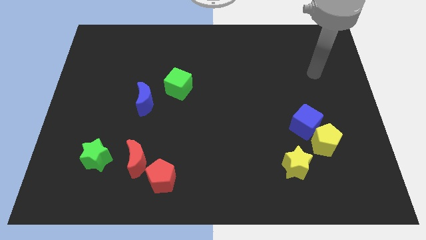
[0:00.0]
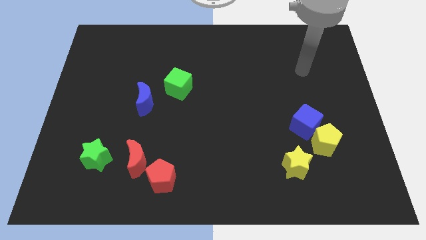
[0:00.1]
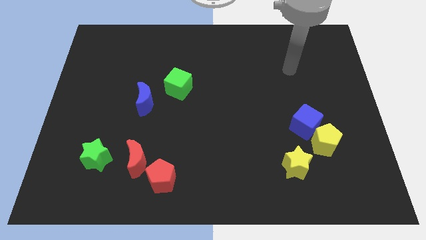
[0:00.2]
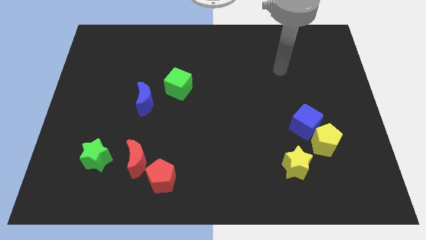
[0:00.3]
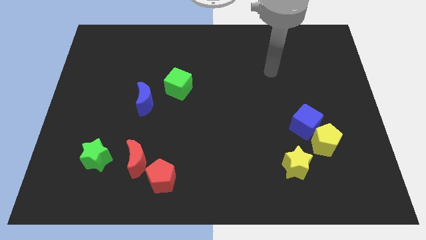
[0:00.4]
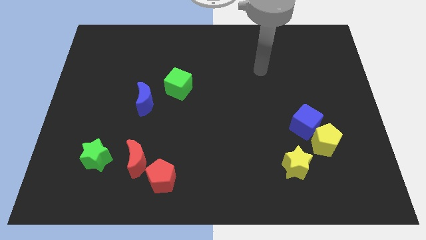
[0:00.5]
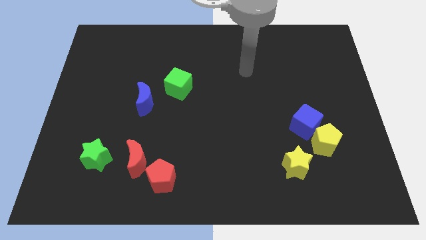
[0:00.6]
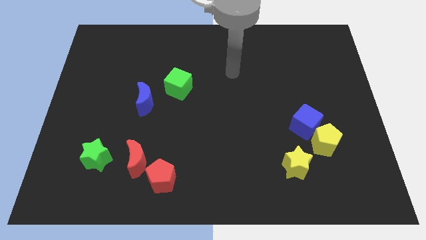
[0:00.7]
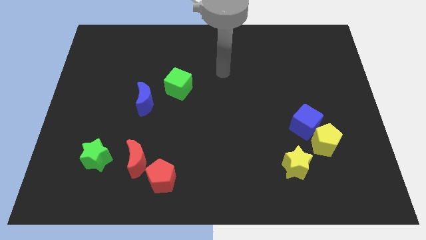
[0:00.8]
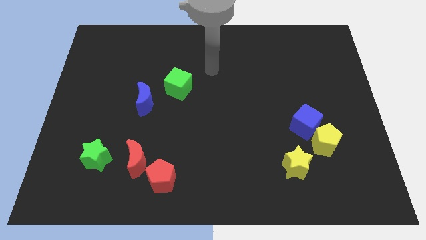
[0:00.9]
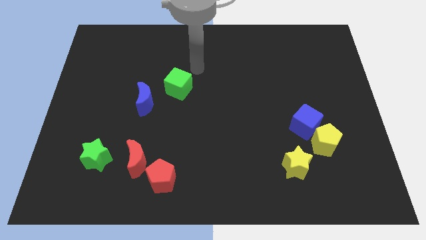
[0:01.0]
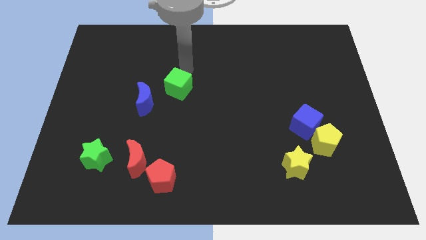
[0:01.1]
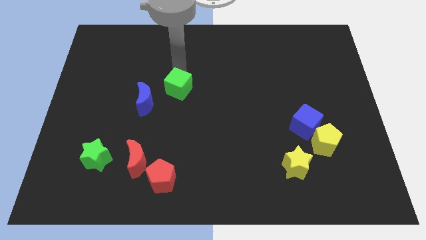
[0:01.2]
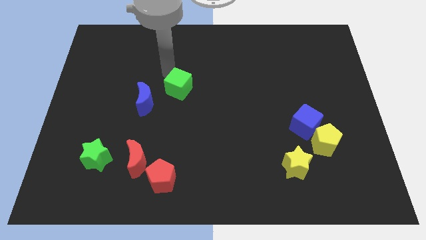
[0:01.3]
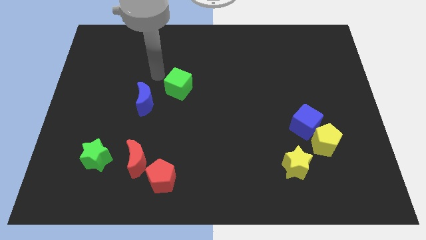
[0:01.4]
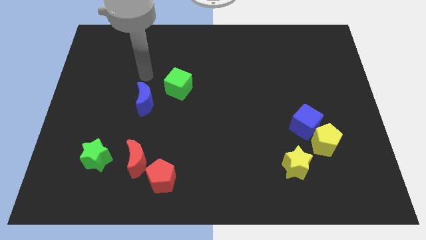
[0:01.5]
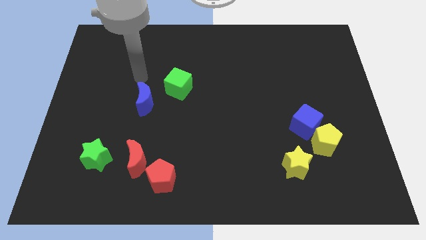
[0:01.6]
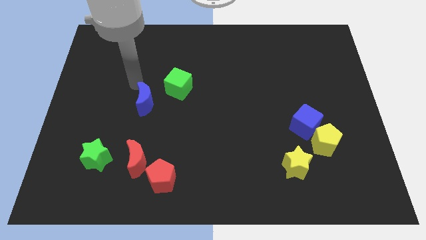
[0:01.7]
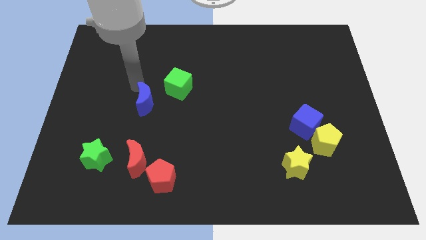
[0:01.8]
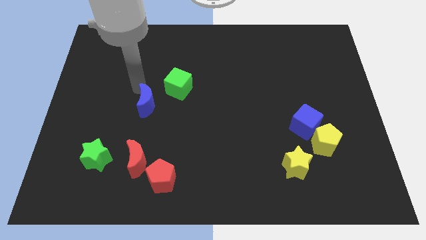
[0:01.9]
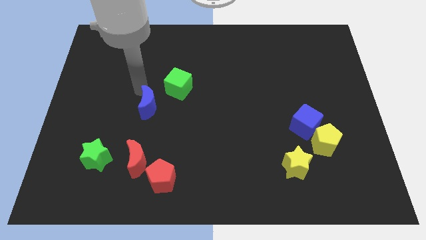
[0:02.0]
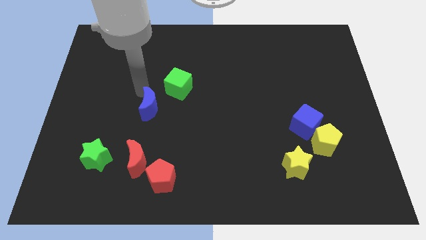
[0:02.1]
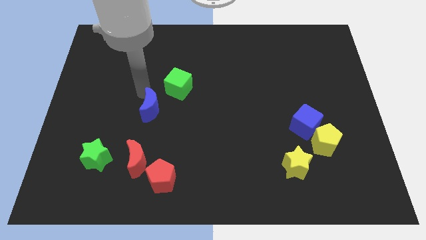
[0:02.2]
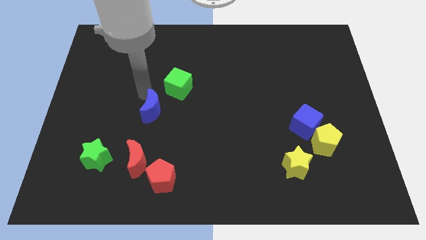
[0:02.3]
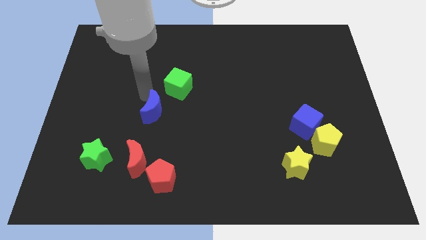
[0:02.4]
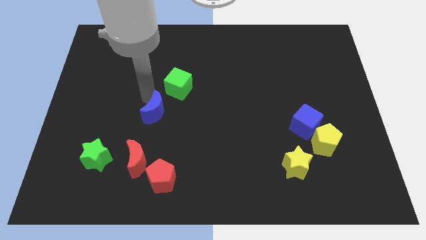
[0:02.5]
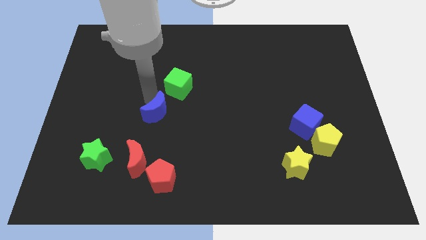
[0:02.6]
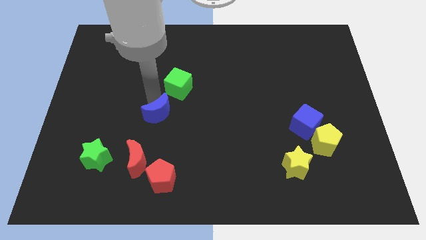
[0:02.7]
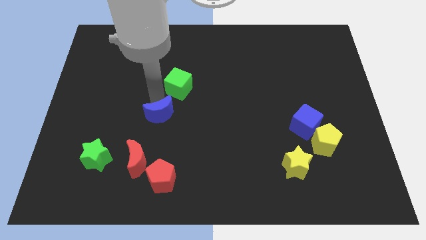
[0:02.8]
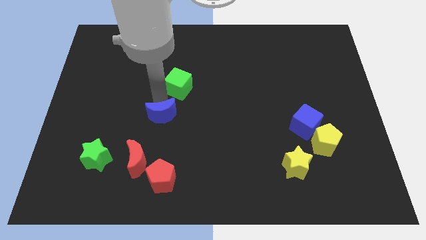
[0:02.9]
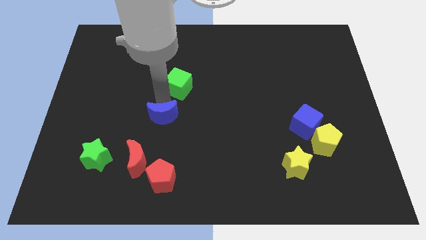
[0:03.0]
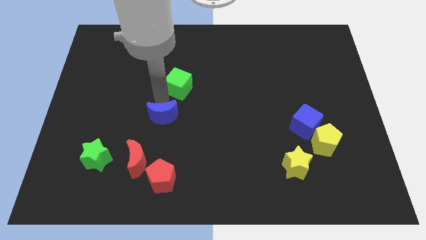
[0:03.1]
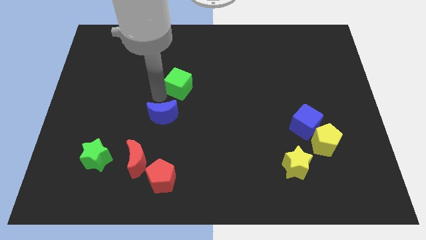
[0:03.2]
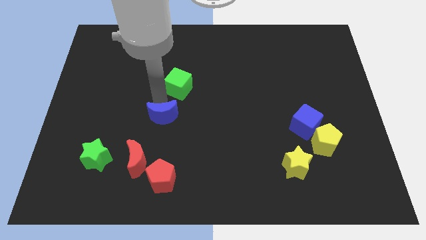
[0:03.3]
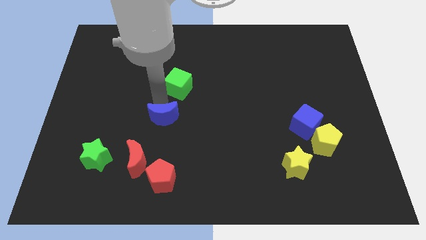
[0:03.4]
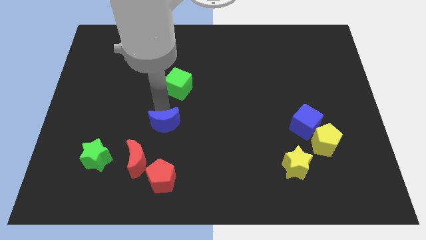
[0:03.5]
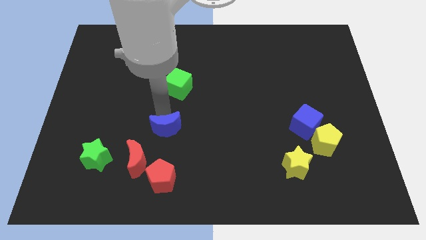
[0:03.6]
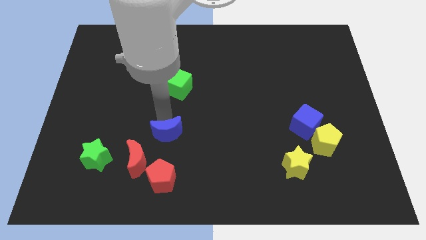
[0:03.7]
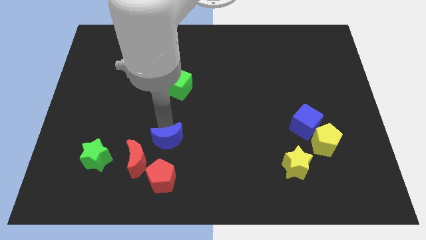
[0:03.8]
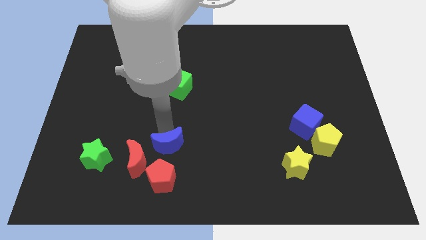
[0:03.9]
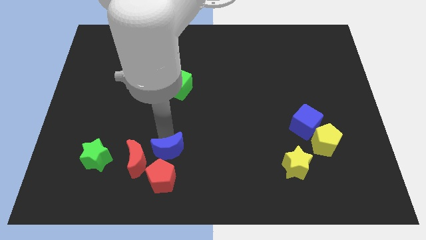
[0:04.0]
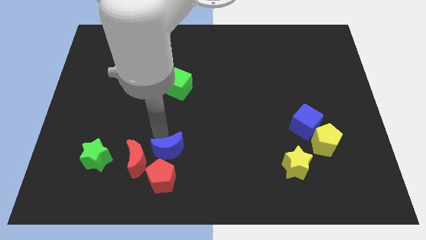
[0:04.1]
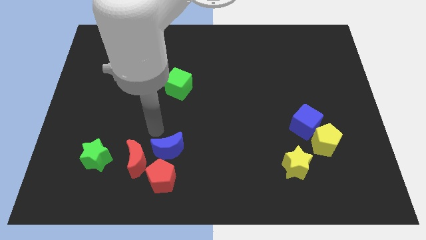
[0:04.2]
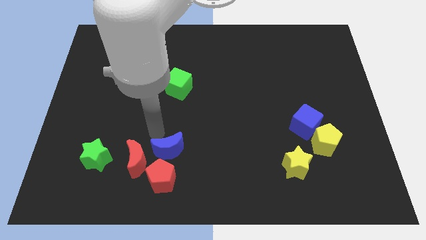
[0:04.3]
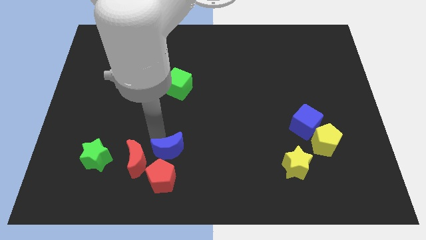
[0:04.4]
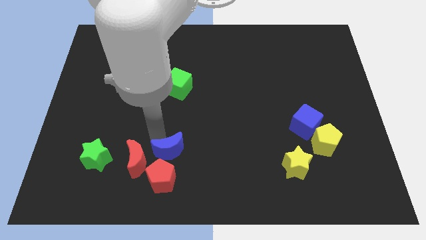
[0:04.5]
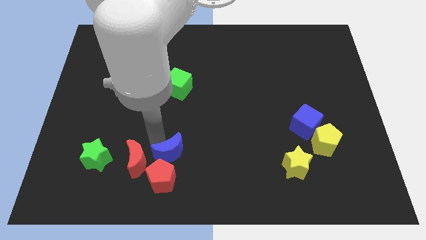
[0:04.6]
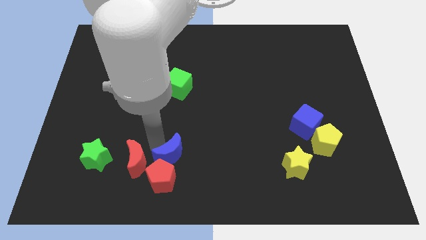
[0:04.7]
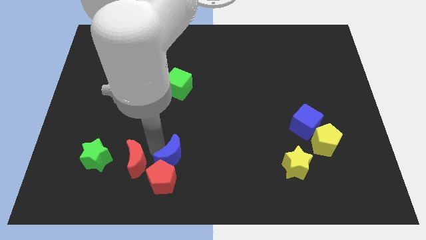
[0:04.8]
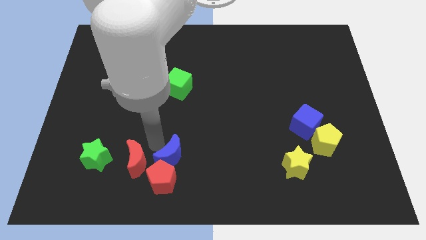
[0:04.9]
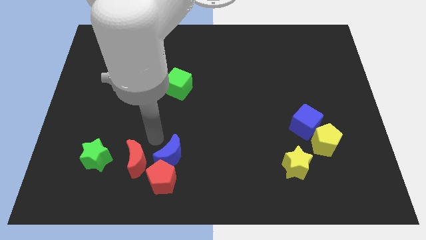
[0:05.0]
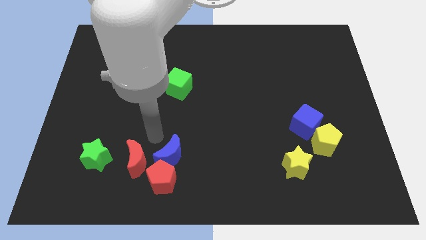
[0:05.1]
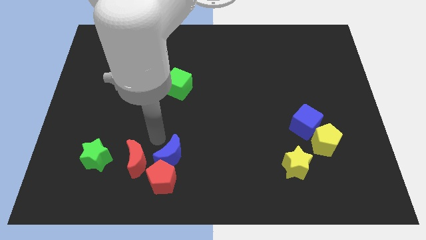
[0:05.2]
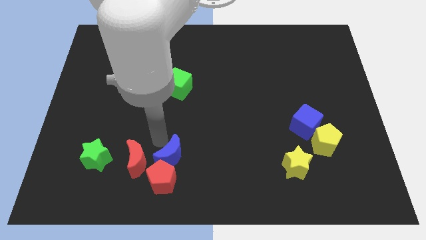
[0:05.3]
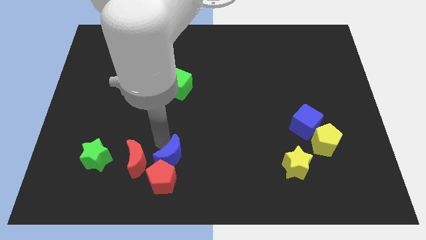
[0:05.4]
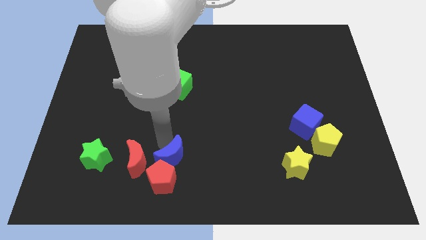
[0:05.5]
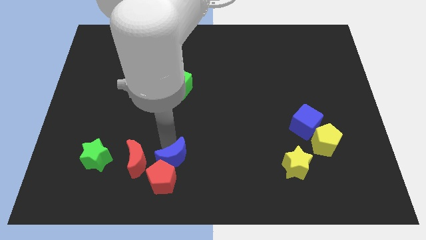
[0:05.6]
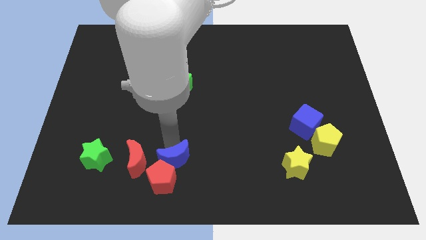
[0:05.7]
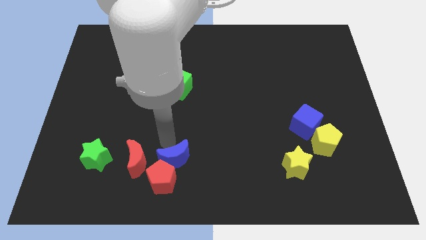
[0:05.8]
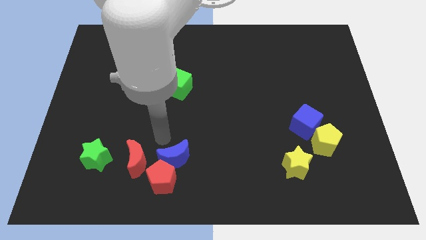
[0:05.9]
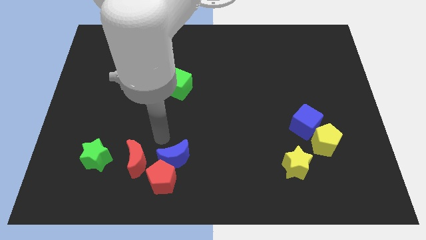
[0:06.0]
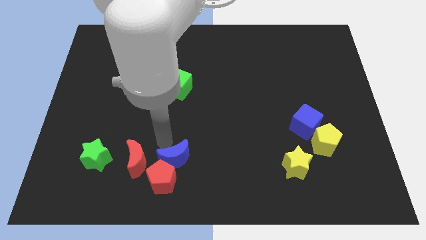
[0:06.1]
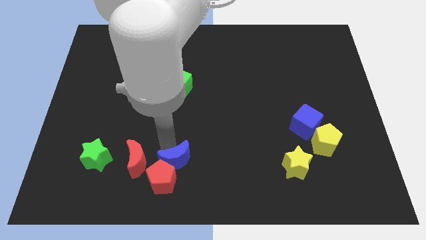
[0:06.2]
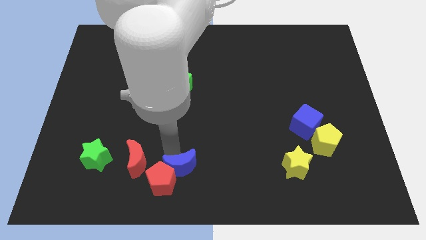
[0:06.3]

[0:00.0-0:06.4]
slide the blue moon to the bottom side
